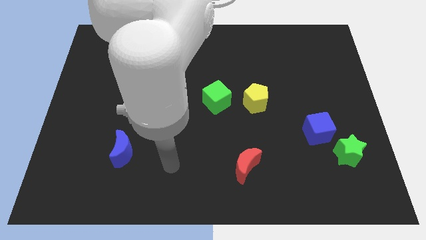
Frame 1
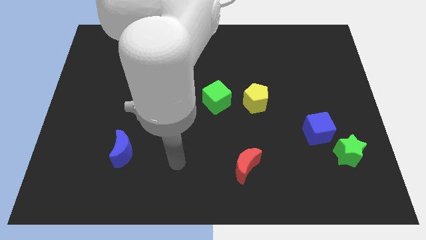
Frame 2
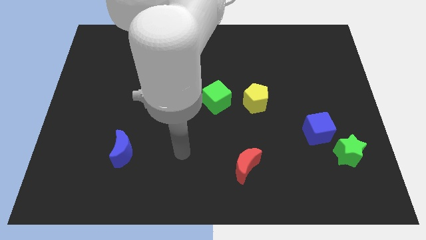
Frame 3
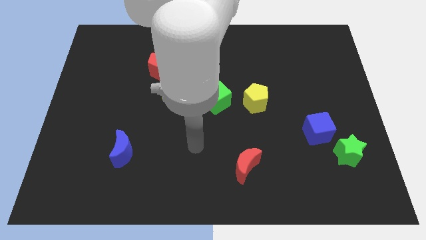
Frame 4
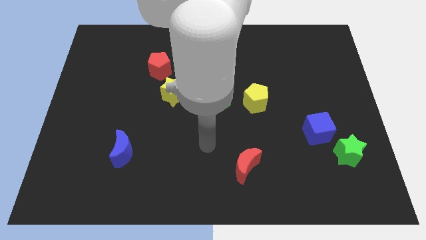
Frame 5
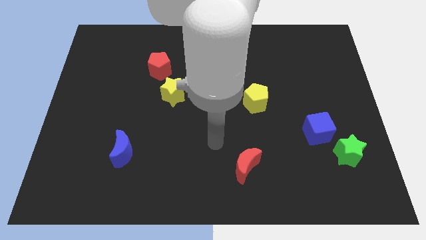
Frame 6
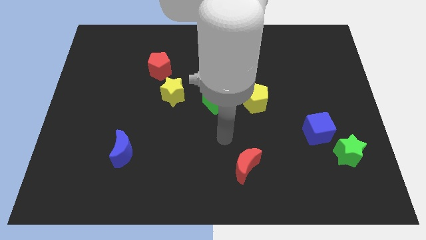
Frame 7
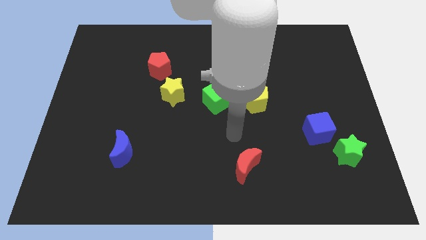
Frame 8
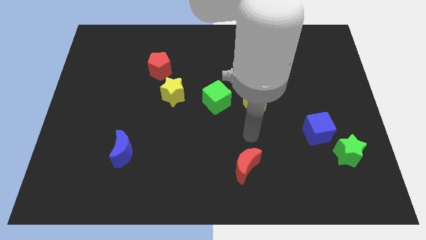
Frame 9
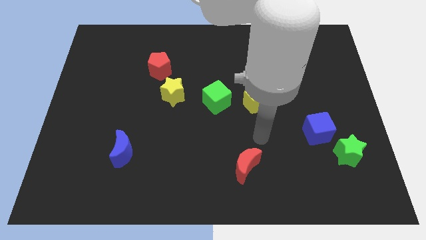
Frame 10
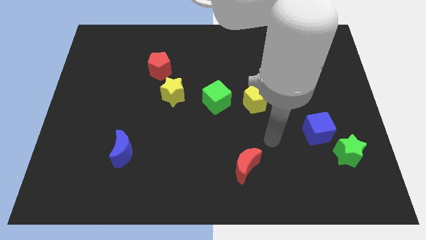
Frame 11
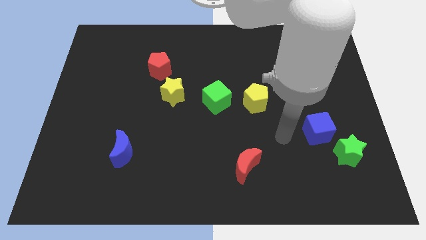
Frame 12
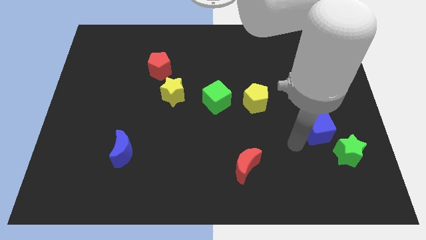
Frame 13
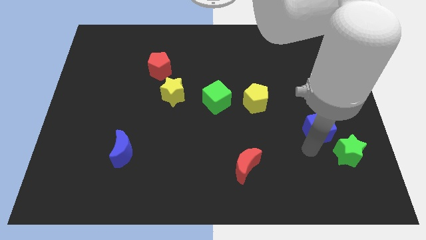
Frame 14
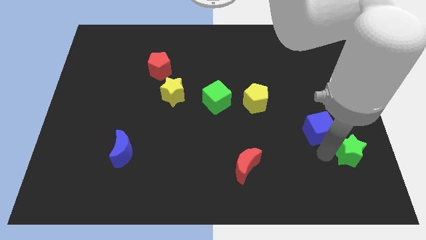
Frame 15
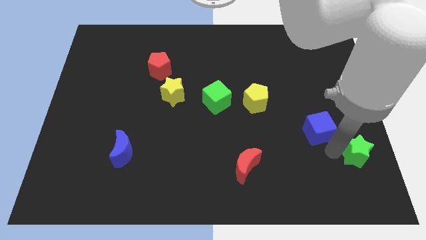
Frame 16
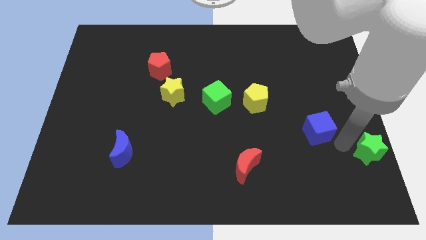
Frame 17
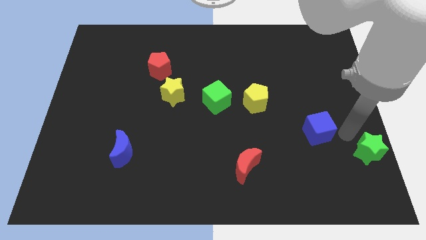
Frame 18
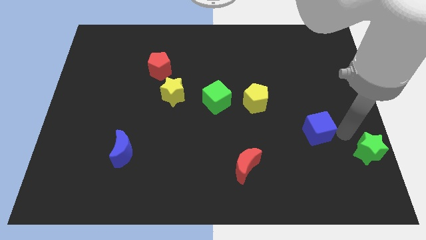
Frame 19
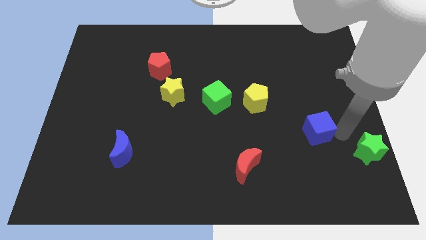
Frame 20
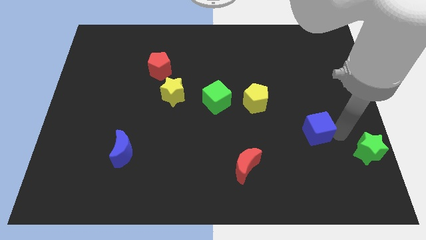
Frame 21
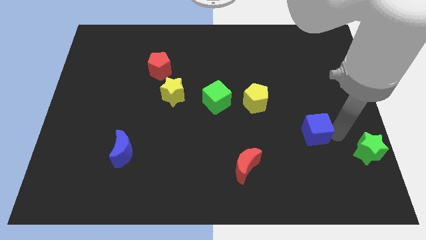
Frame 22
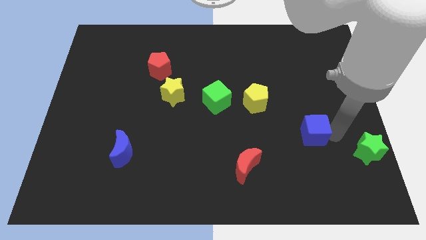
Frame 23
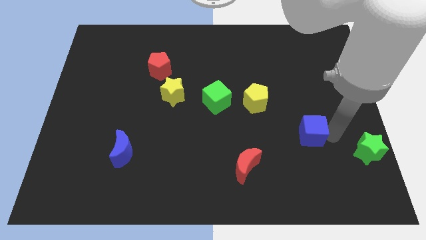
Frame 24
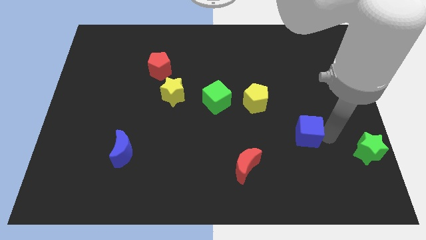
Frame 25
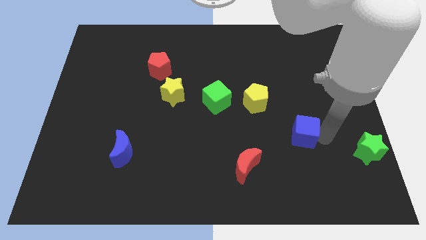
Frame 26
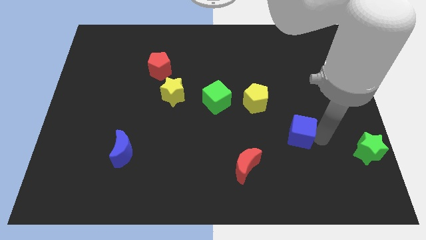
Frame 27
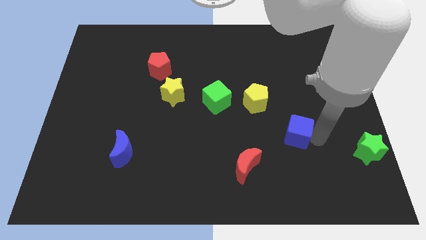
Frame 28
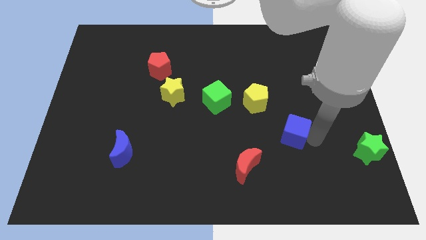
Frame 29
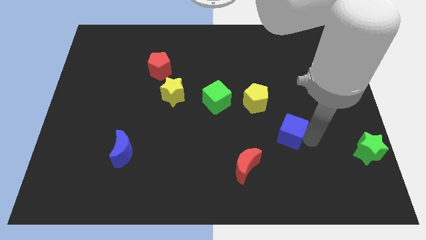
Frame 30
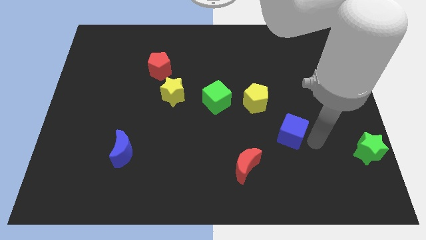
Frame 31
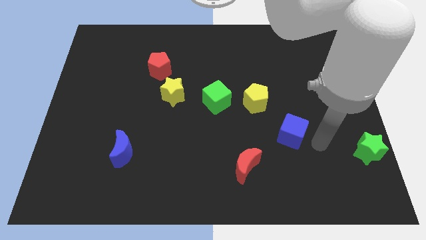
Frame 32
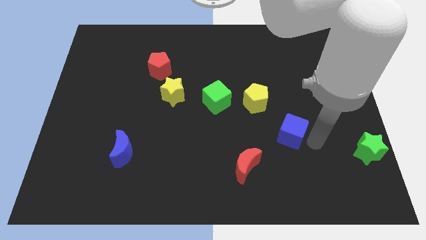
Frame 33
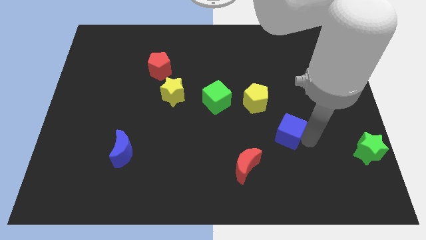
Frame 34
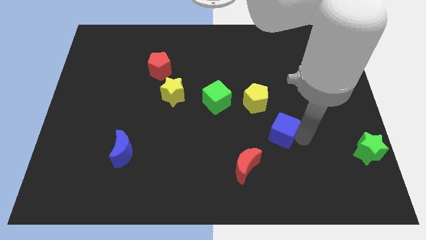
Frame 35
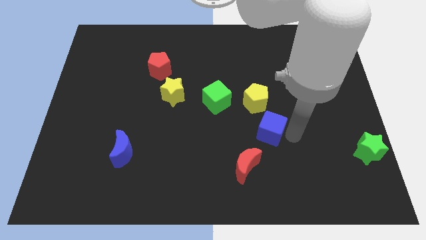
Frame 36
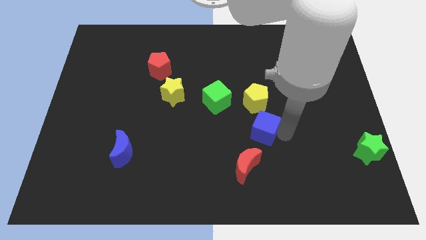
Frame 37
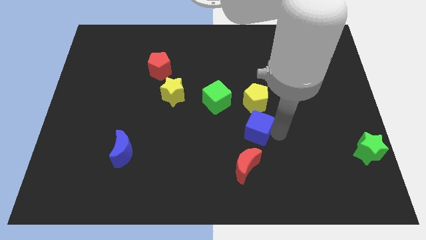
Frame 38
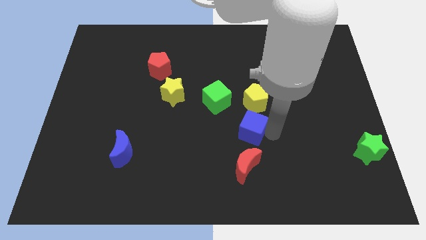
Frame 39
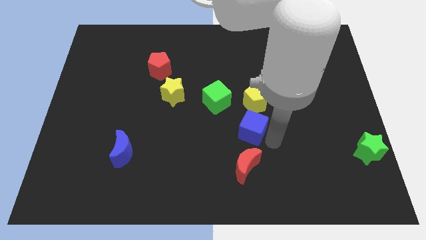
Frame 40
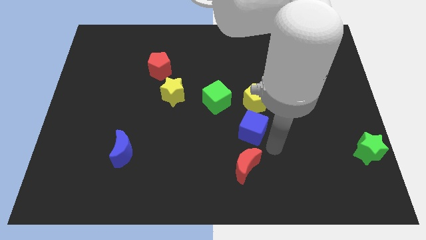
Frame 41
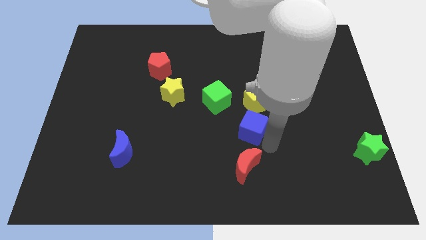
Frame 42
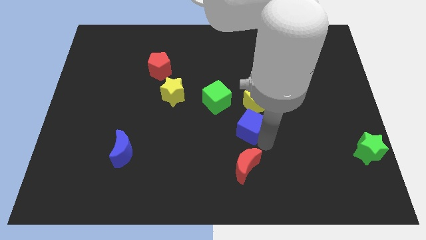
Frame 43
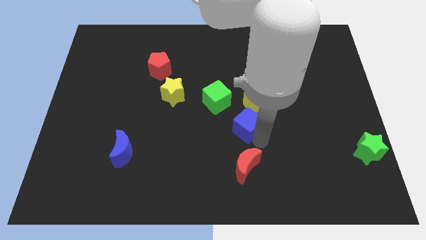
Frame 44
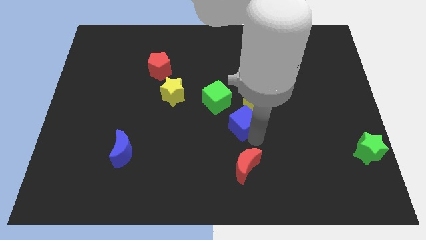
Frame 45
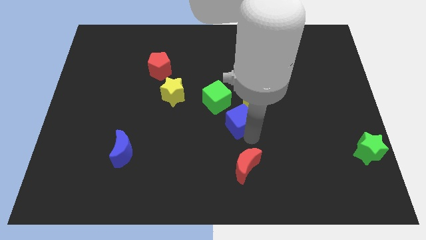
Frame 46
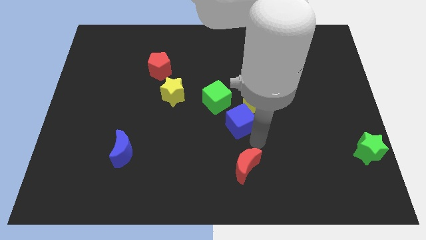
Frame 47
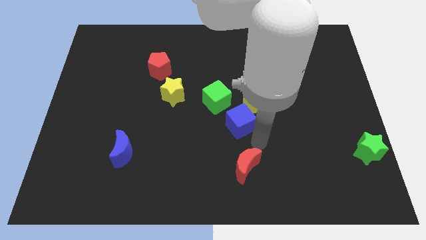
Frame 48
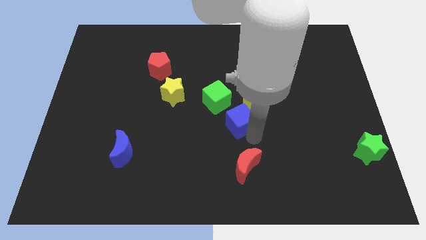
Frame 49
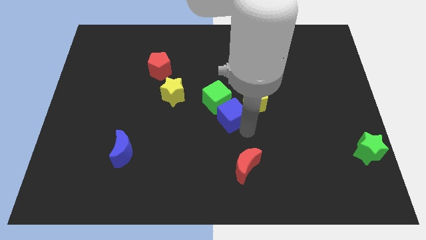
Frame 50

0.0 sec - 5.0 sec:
put the blue cube next to the green cube

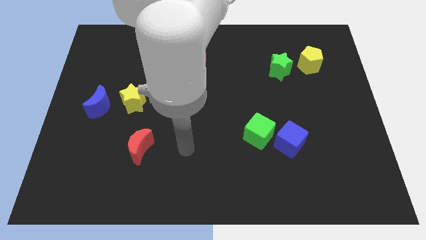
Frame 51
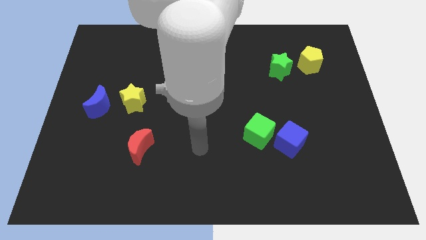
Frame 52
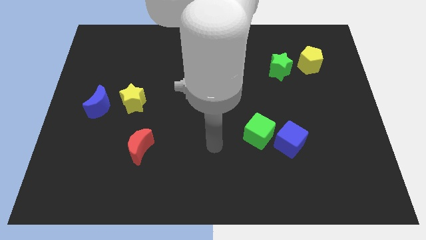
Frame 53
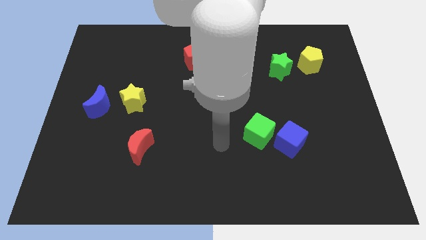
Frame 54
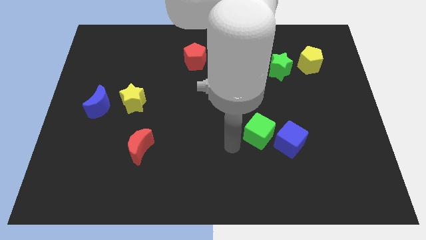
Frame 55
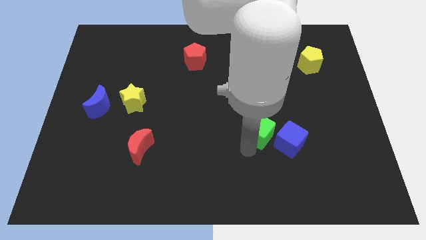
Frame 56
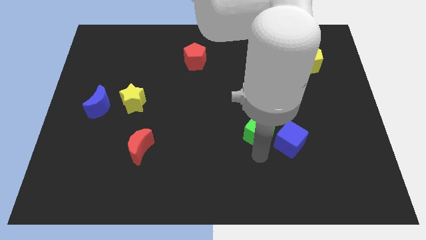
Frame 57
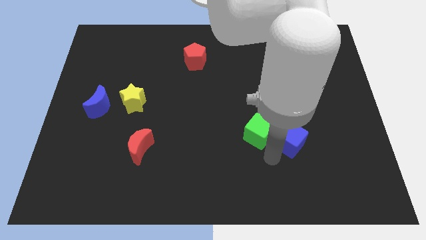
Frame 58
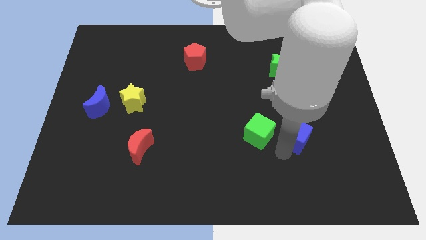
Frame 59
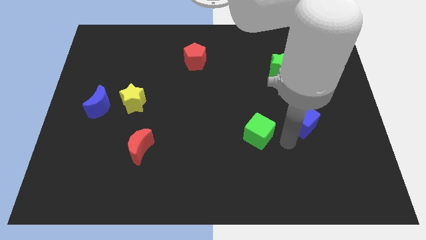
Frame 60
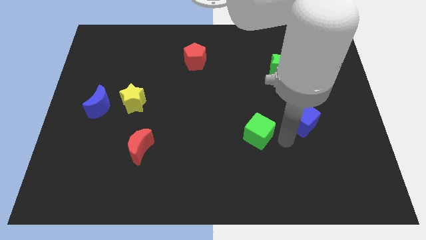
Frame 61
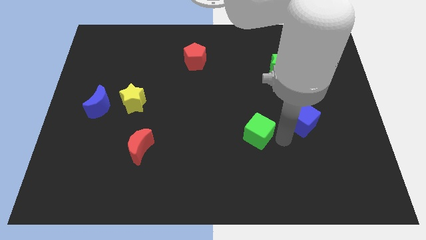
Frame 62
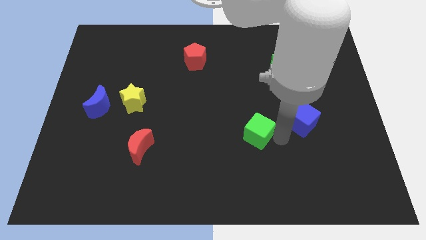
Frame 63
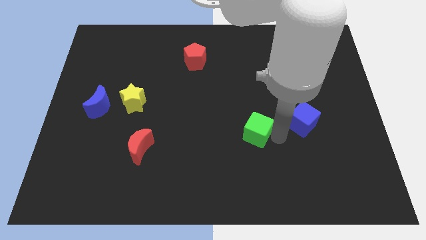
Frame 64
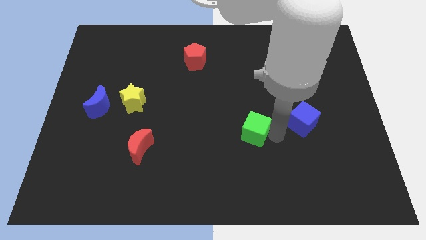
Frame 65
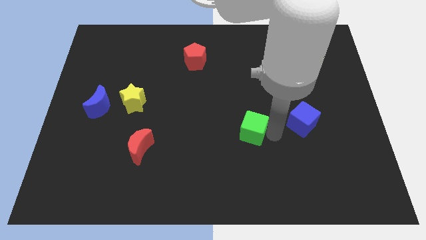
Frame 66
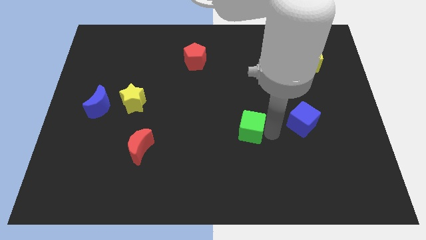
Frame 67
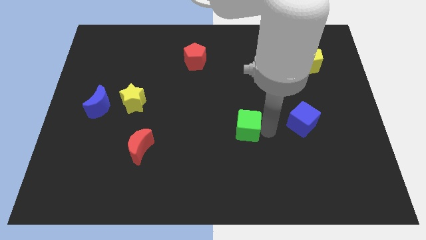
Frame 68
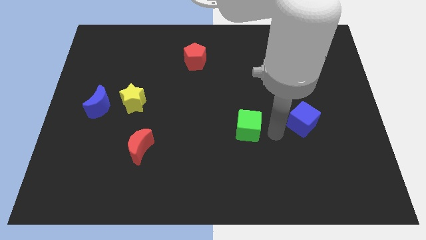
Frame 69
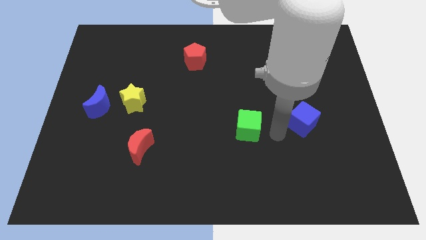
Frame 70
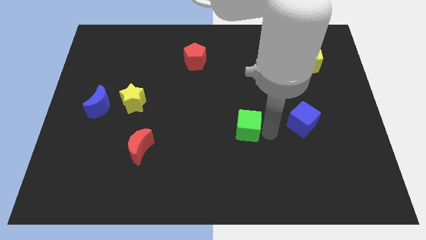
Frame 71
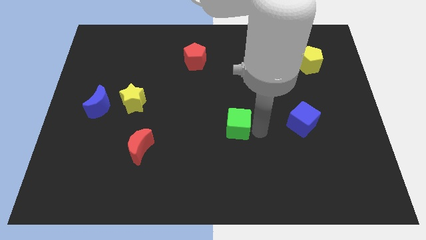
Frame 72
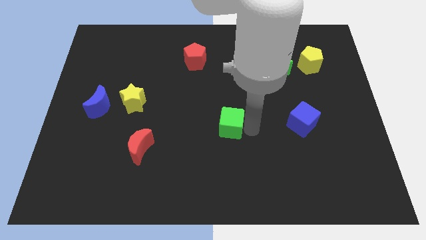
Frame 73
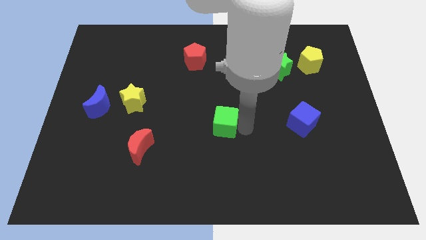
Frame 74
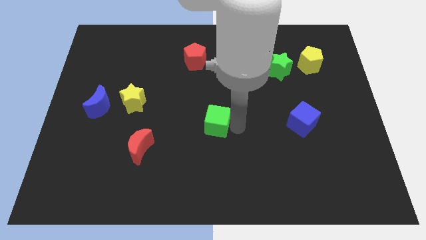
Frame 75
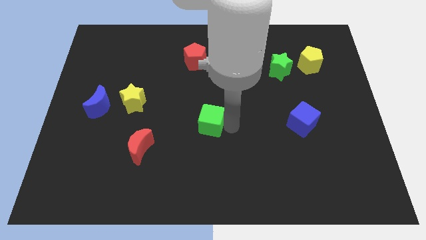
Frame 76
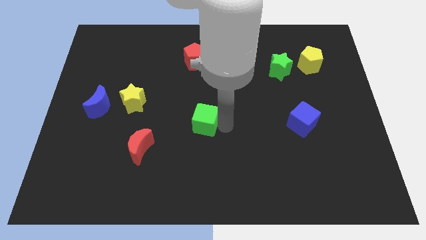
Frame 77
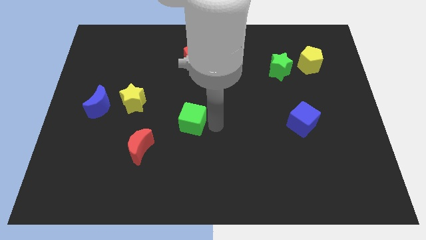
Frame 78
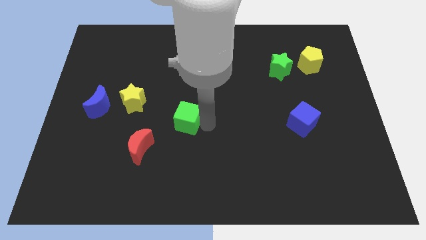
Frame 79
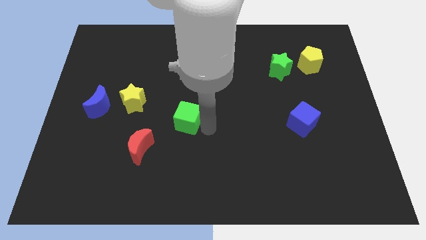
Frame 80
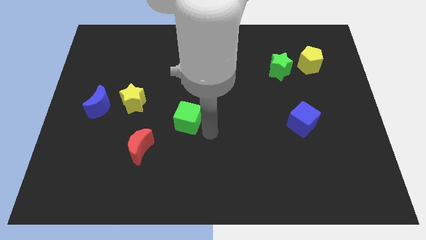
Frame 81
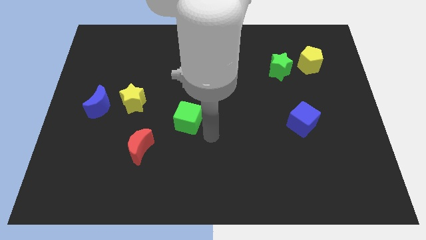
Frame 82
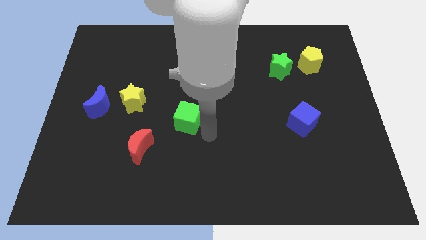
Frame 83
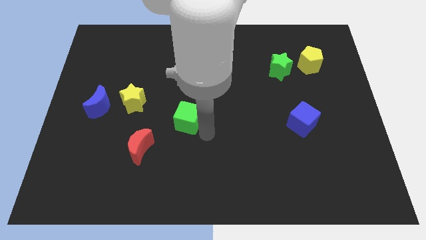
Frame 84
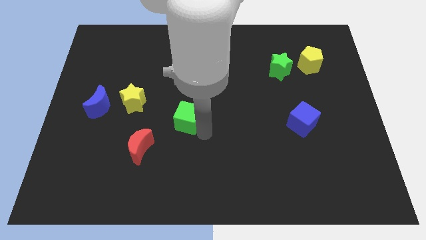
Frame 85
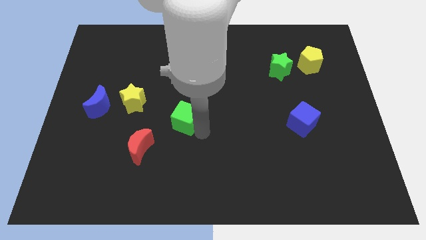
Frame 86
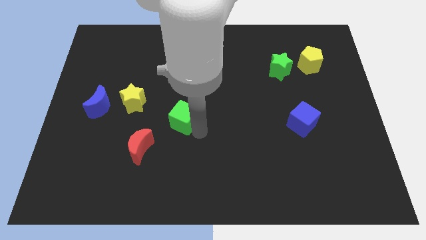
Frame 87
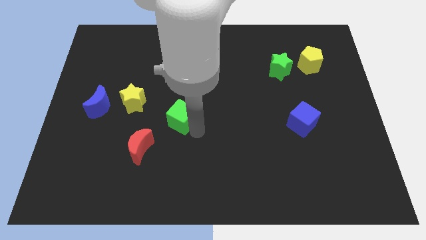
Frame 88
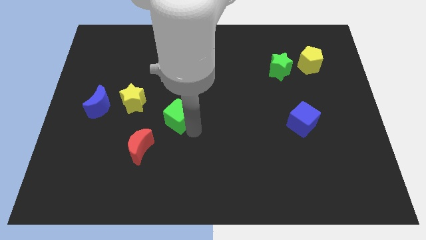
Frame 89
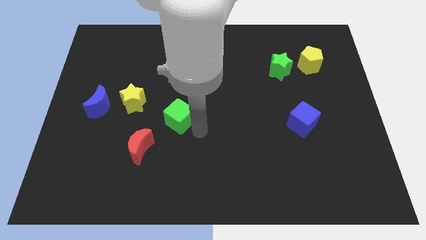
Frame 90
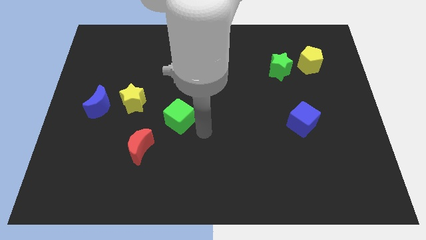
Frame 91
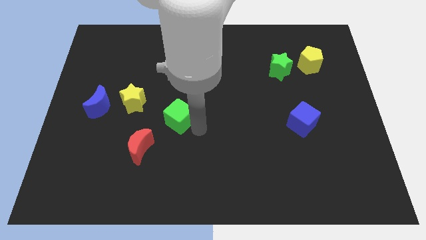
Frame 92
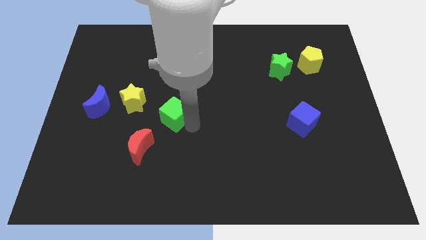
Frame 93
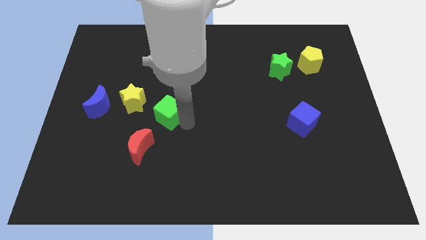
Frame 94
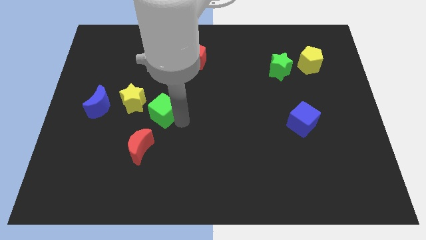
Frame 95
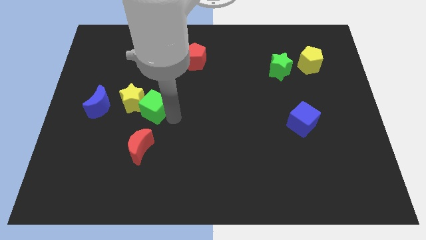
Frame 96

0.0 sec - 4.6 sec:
put the green cube next to the yellow star
